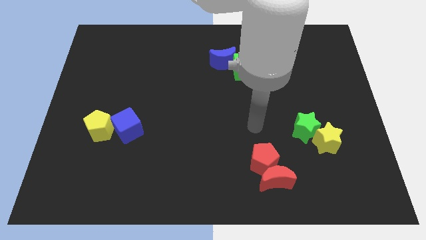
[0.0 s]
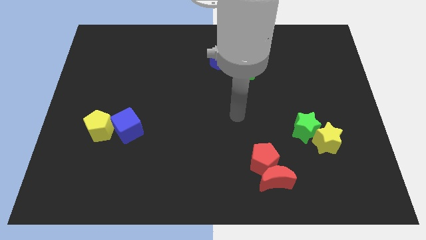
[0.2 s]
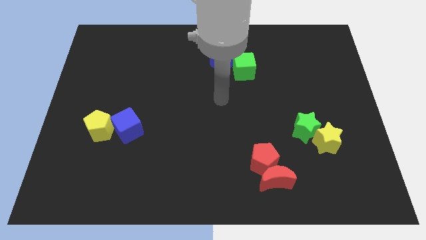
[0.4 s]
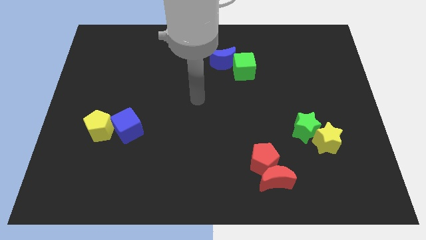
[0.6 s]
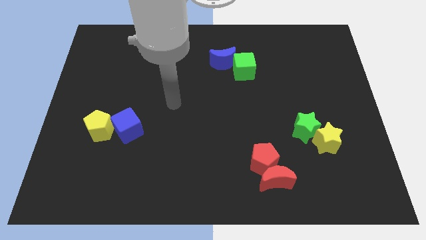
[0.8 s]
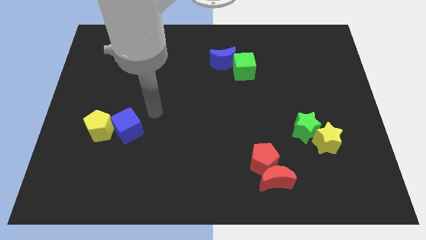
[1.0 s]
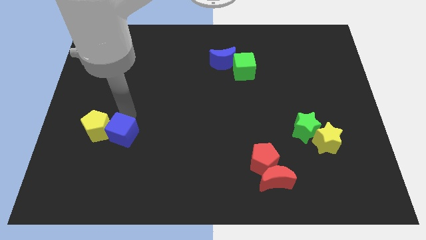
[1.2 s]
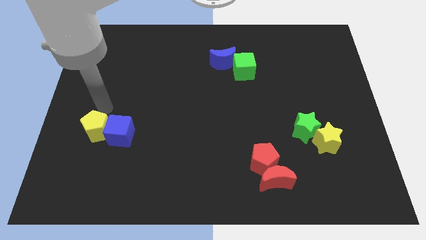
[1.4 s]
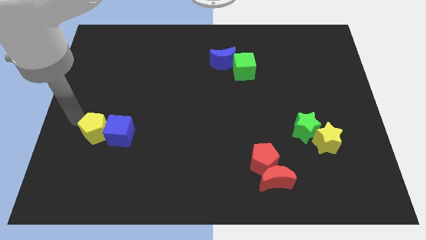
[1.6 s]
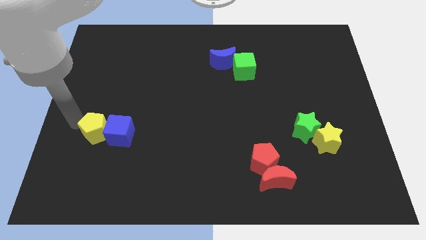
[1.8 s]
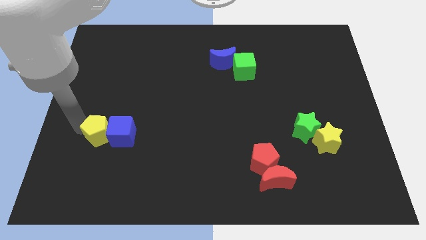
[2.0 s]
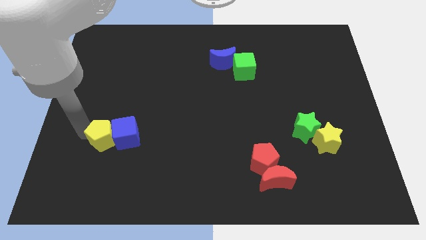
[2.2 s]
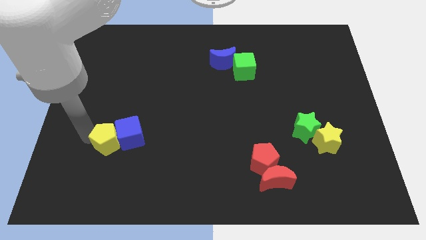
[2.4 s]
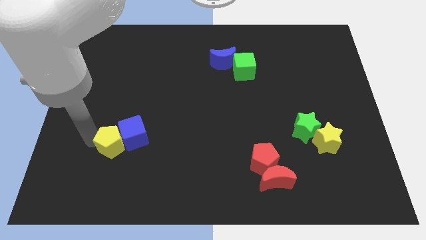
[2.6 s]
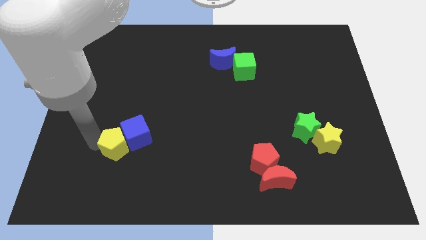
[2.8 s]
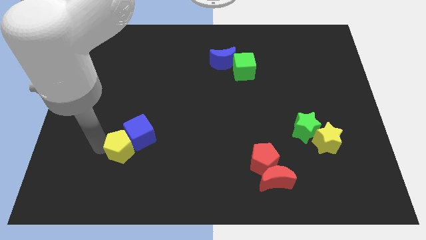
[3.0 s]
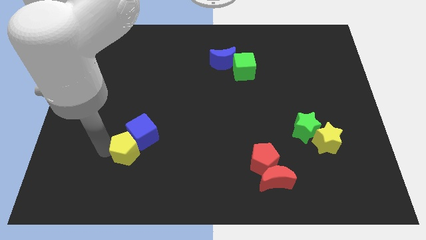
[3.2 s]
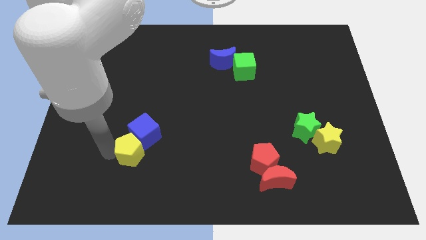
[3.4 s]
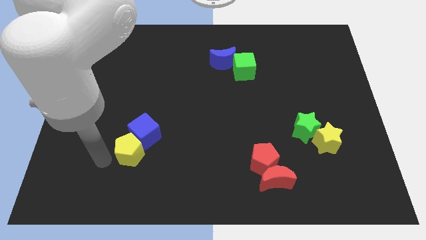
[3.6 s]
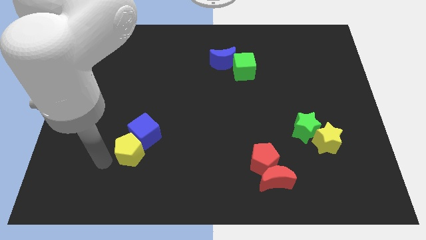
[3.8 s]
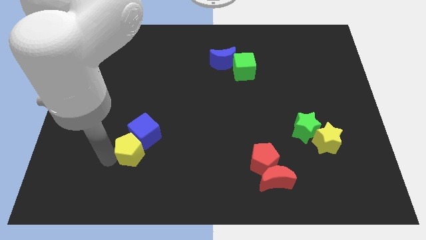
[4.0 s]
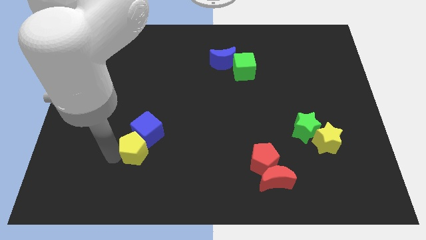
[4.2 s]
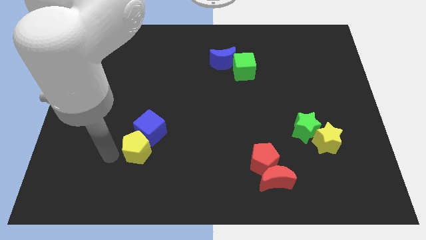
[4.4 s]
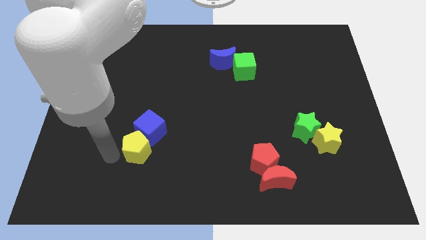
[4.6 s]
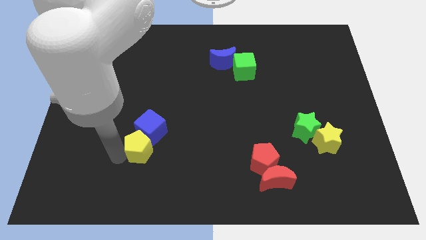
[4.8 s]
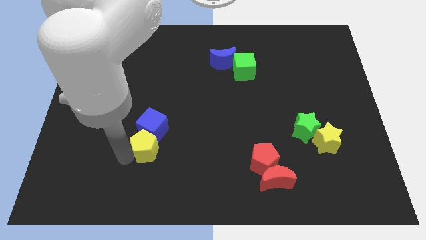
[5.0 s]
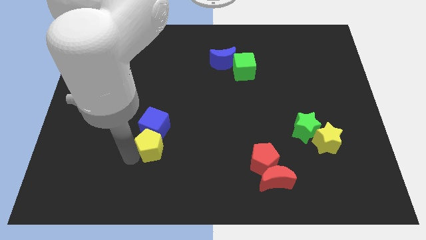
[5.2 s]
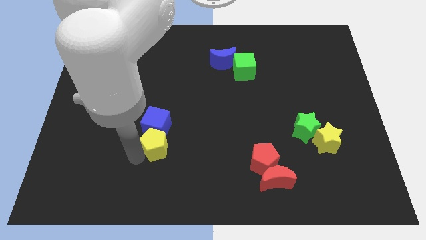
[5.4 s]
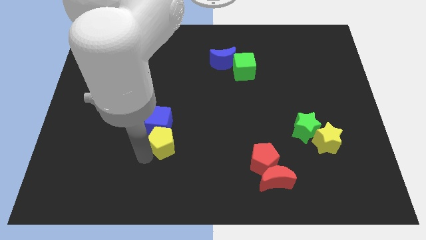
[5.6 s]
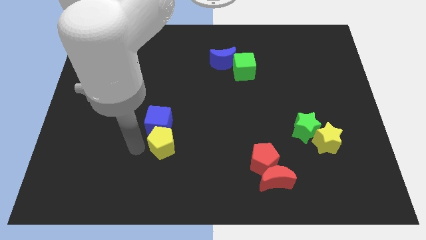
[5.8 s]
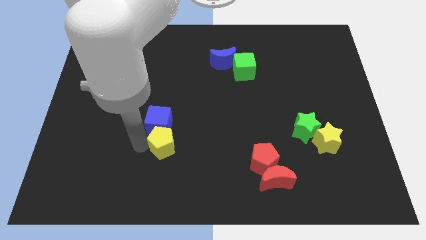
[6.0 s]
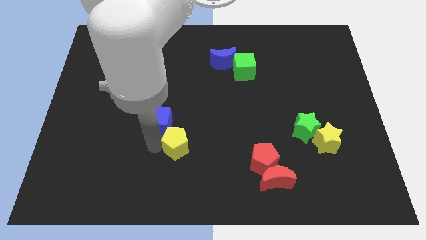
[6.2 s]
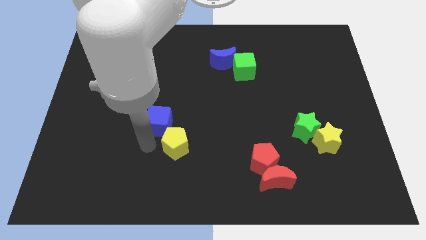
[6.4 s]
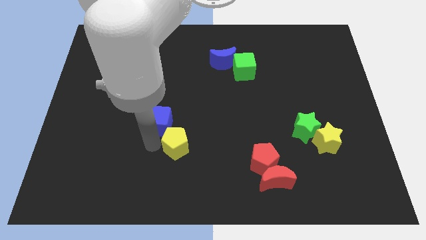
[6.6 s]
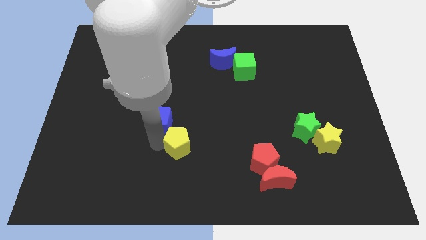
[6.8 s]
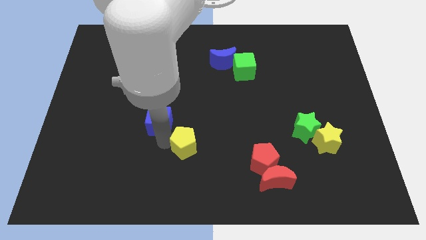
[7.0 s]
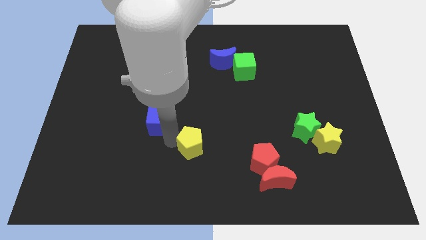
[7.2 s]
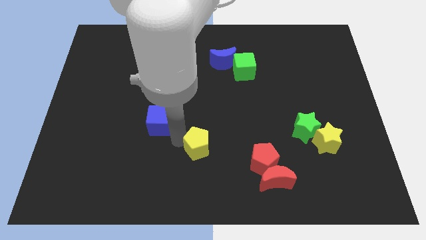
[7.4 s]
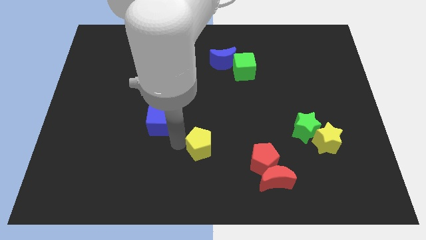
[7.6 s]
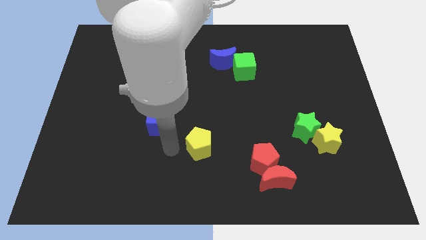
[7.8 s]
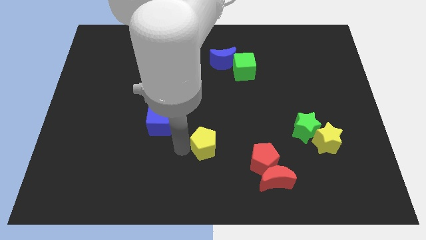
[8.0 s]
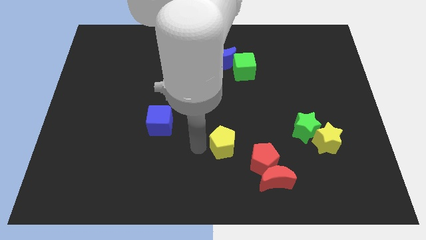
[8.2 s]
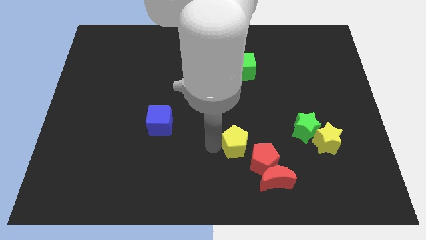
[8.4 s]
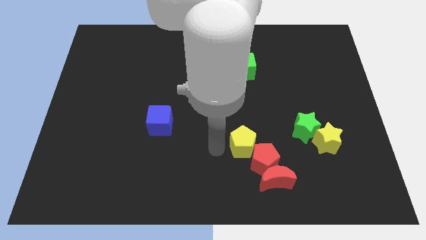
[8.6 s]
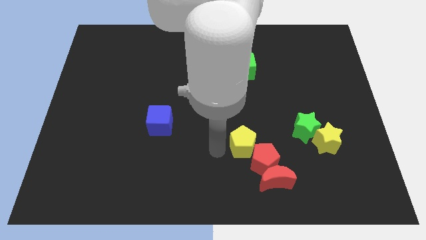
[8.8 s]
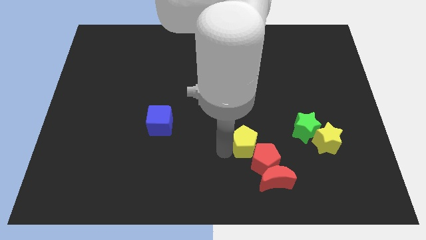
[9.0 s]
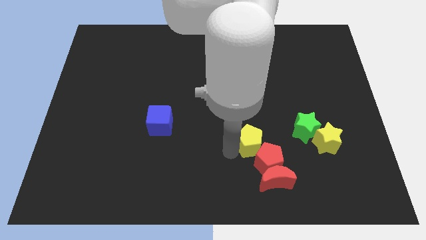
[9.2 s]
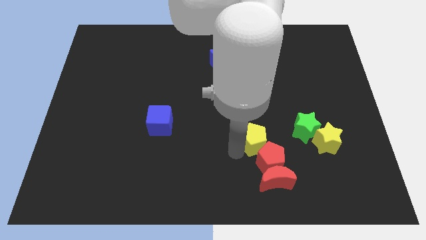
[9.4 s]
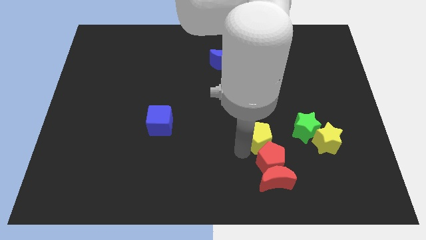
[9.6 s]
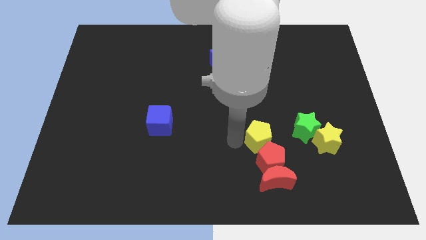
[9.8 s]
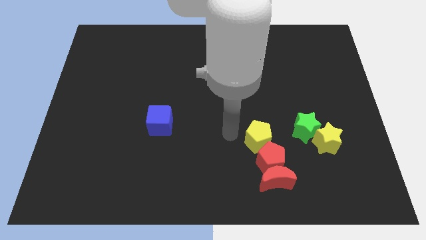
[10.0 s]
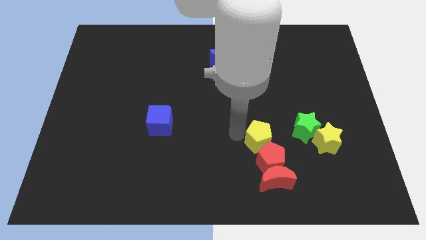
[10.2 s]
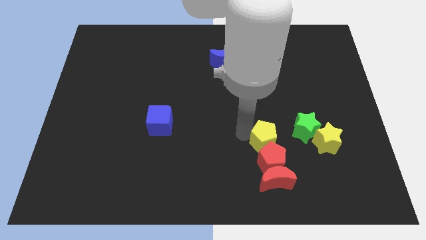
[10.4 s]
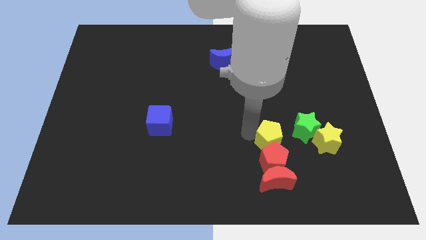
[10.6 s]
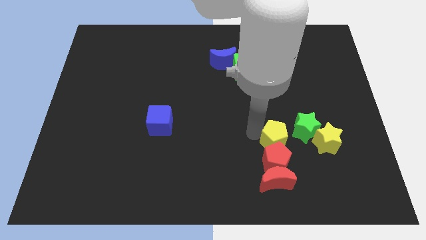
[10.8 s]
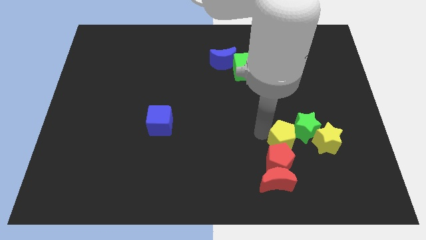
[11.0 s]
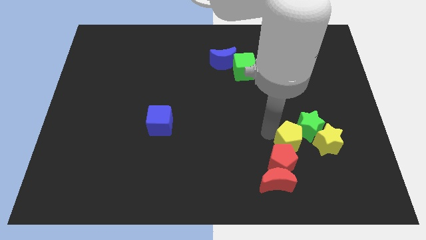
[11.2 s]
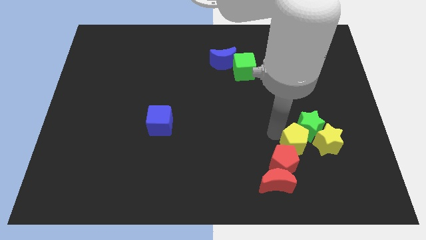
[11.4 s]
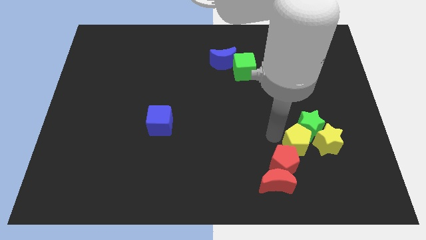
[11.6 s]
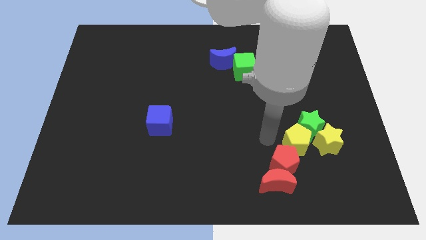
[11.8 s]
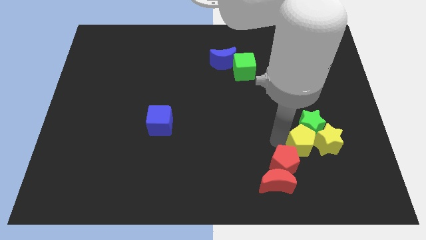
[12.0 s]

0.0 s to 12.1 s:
put the yellow pentagon towards the yellow star

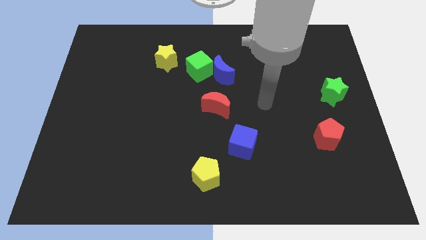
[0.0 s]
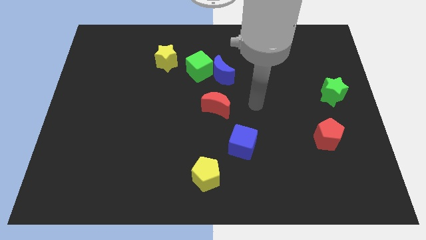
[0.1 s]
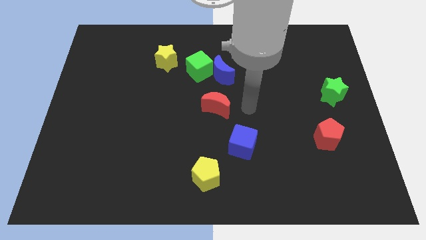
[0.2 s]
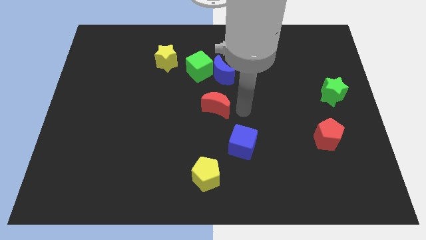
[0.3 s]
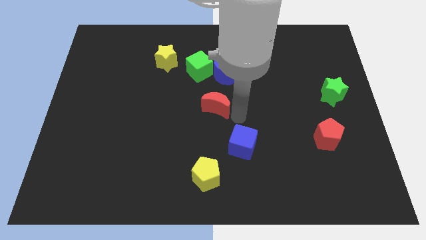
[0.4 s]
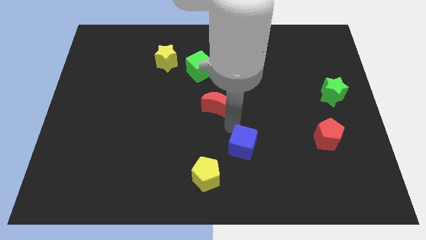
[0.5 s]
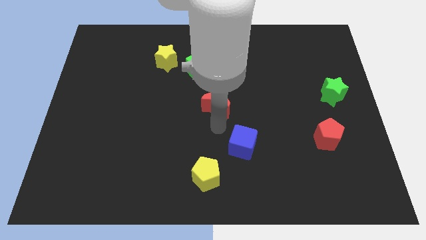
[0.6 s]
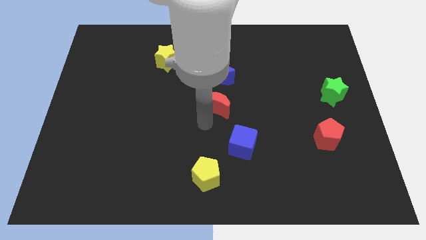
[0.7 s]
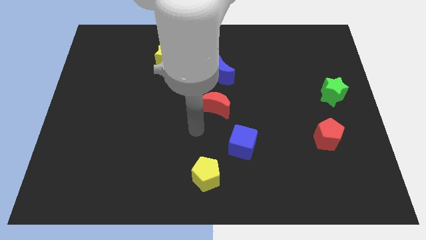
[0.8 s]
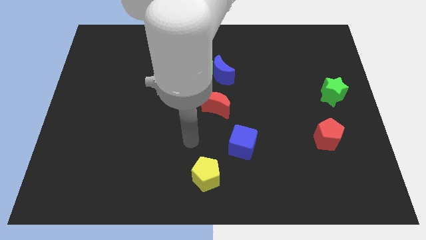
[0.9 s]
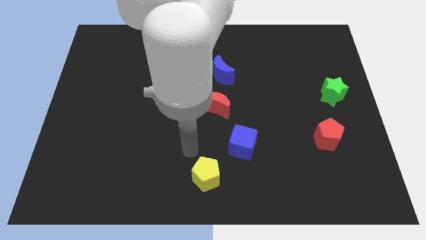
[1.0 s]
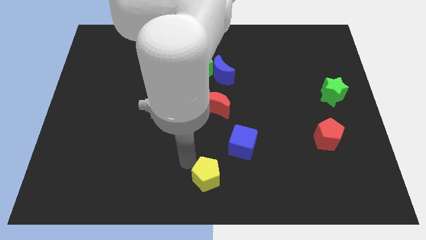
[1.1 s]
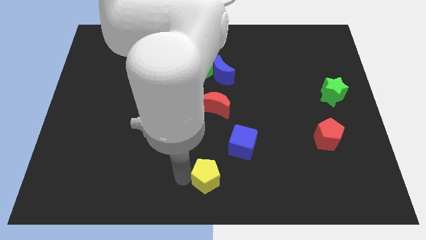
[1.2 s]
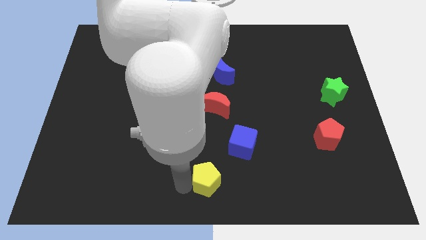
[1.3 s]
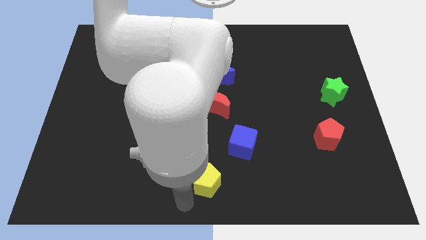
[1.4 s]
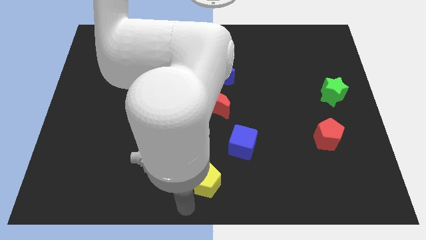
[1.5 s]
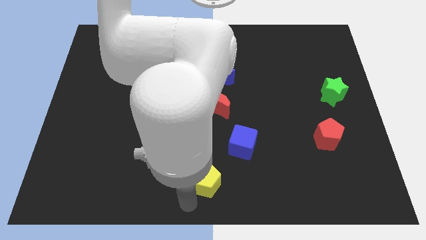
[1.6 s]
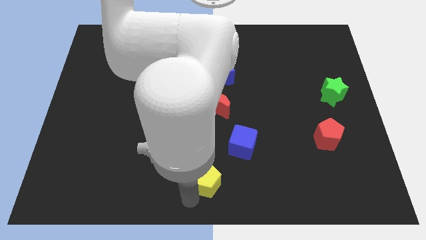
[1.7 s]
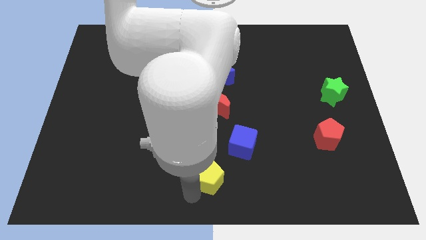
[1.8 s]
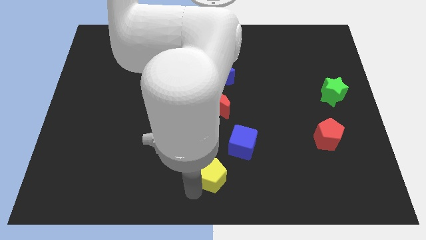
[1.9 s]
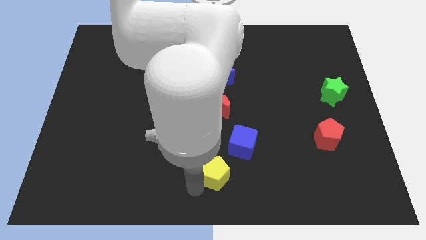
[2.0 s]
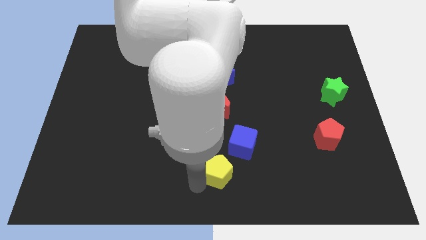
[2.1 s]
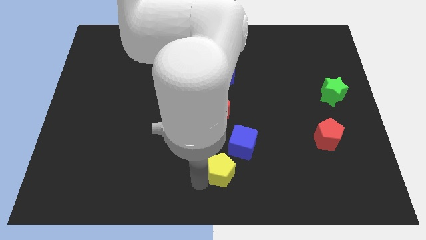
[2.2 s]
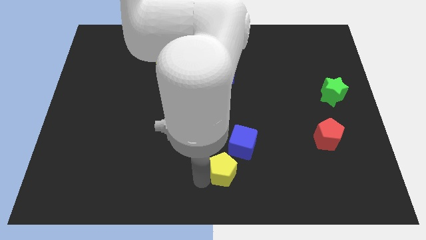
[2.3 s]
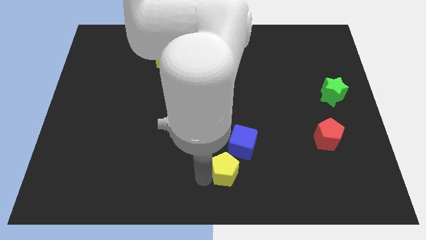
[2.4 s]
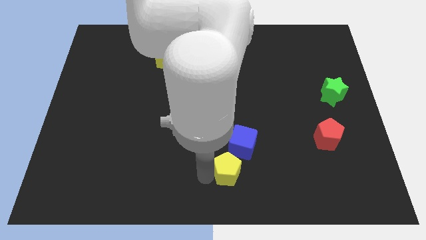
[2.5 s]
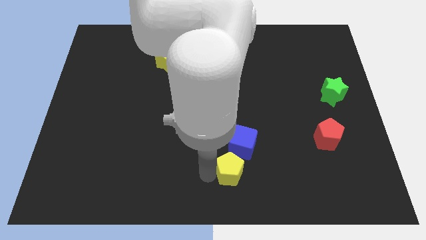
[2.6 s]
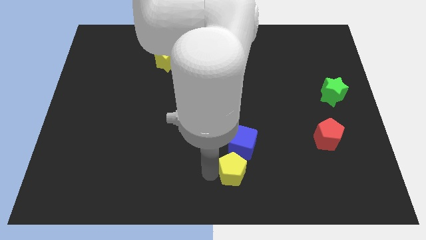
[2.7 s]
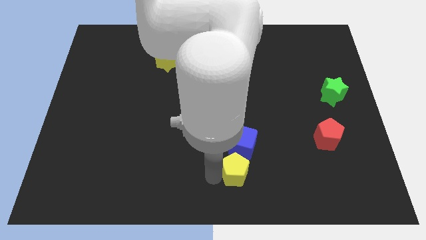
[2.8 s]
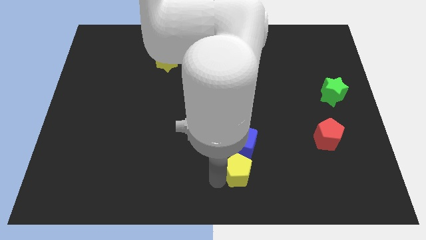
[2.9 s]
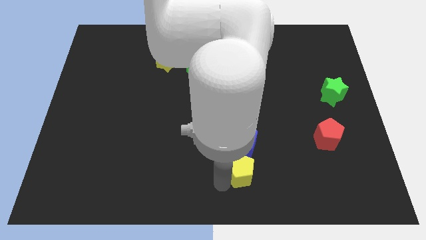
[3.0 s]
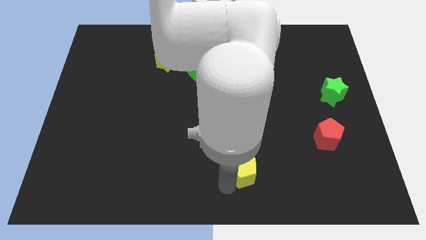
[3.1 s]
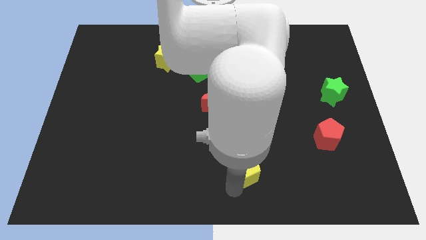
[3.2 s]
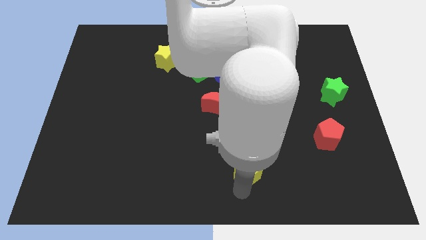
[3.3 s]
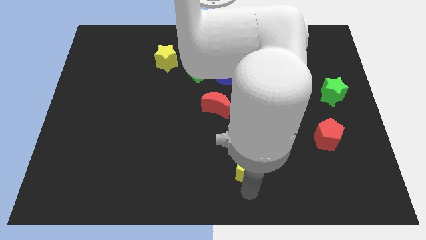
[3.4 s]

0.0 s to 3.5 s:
slide the yellow pentagon to the blue cube
